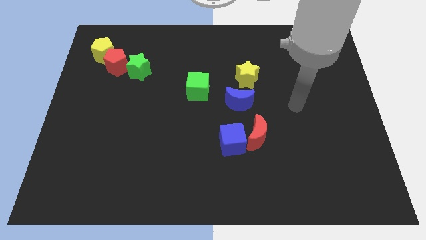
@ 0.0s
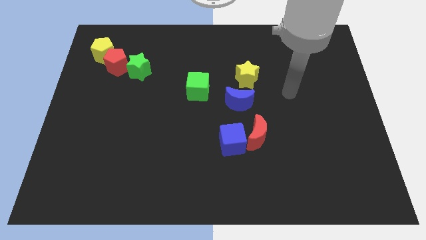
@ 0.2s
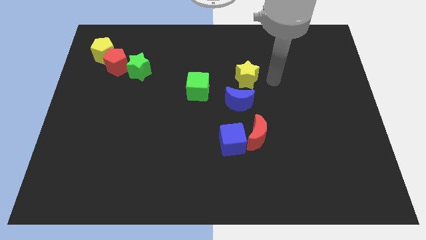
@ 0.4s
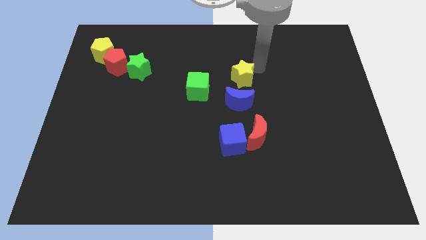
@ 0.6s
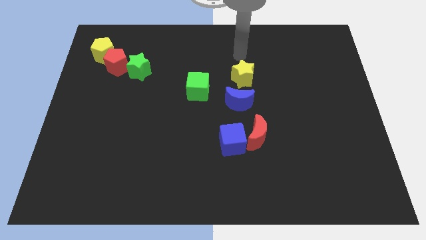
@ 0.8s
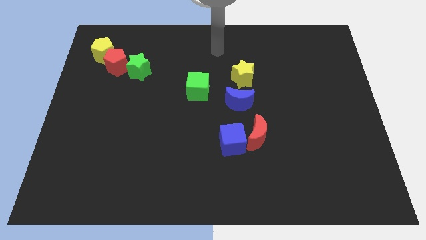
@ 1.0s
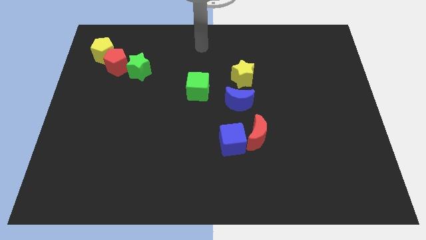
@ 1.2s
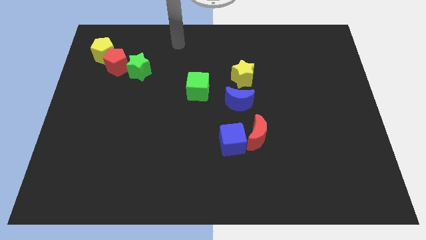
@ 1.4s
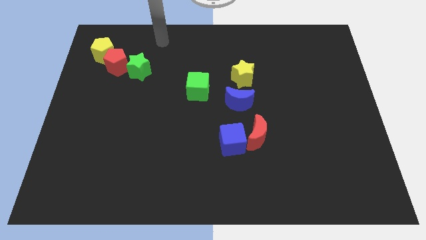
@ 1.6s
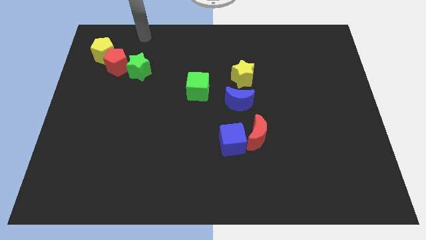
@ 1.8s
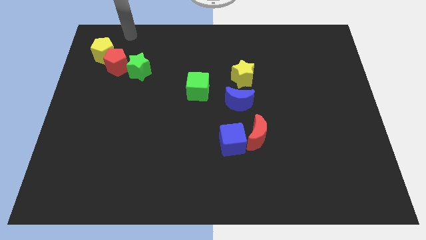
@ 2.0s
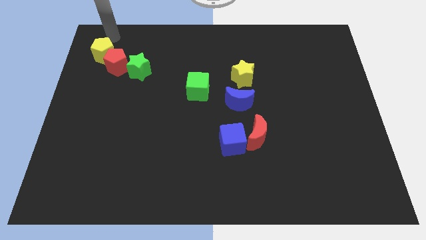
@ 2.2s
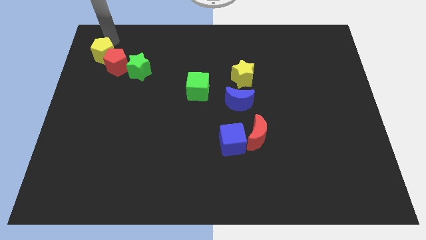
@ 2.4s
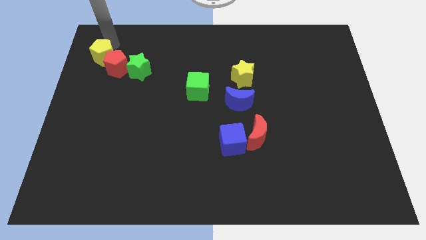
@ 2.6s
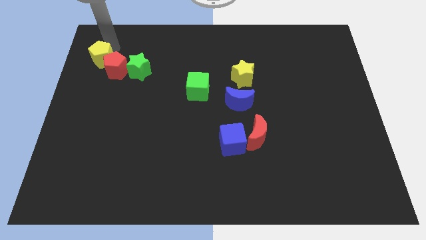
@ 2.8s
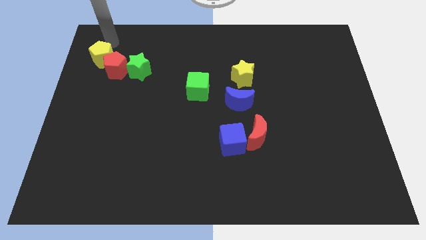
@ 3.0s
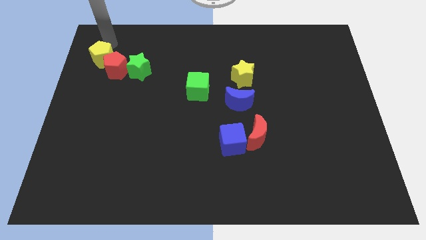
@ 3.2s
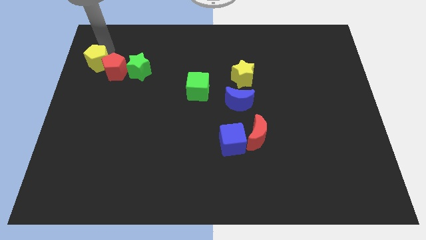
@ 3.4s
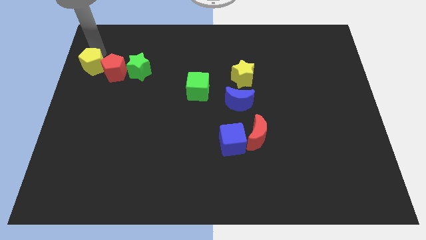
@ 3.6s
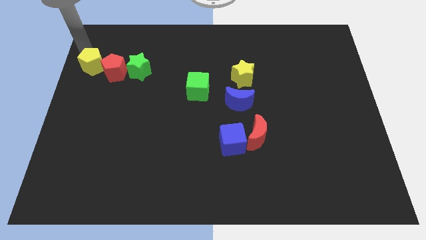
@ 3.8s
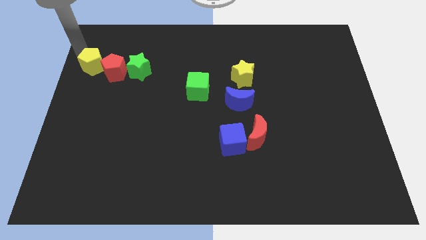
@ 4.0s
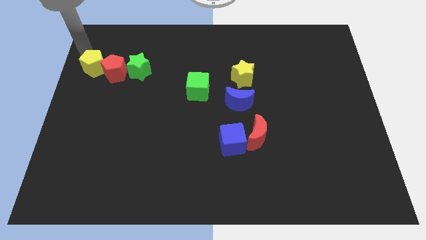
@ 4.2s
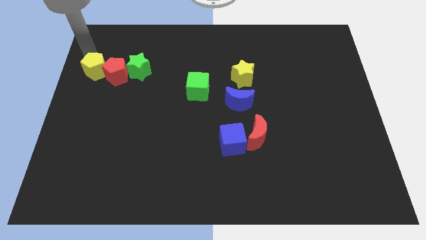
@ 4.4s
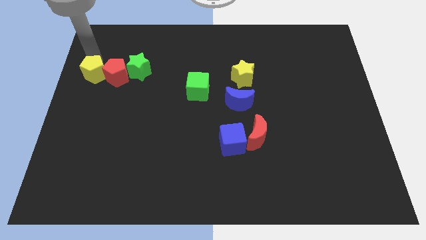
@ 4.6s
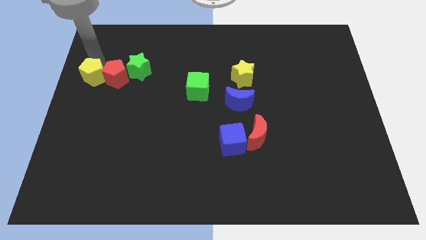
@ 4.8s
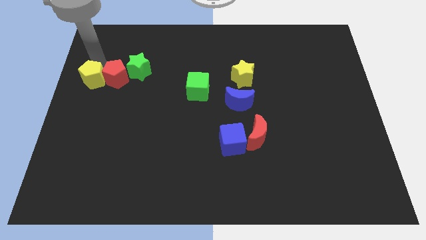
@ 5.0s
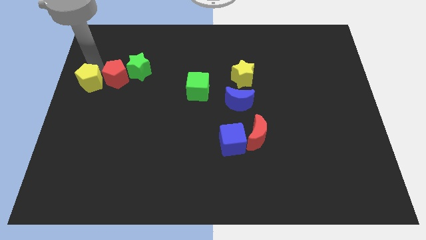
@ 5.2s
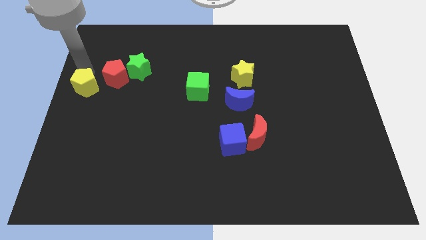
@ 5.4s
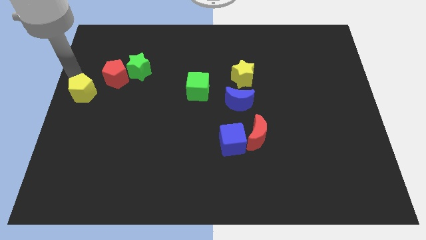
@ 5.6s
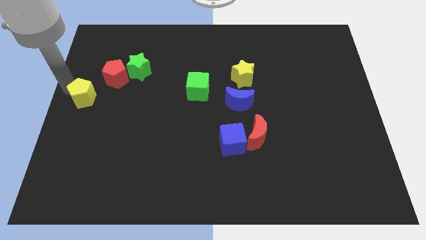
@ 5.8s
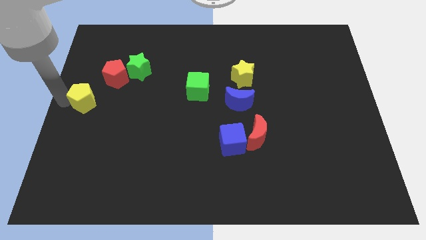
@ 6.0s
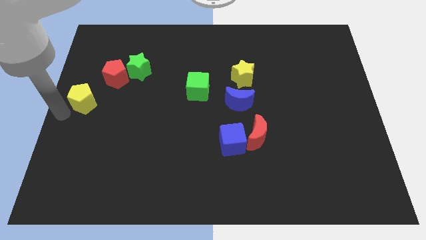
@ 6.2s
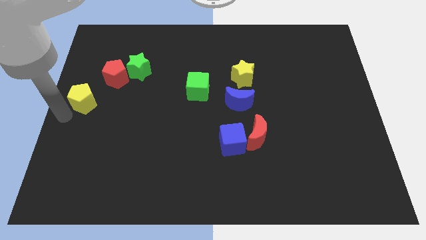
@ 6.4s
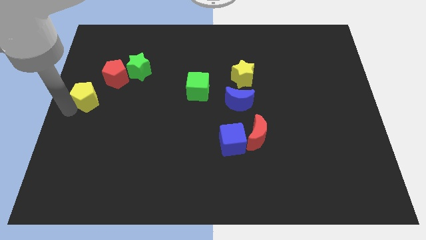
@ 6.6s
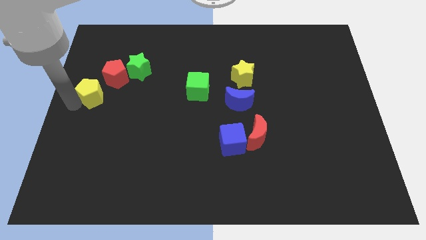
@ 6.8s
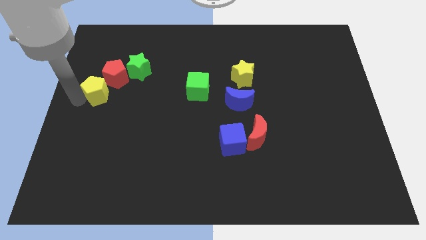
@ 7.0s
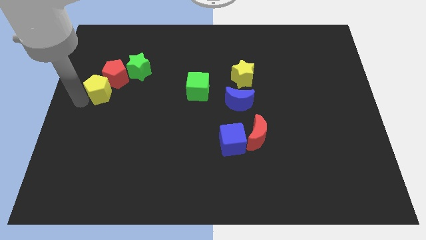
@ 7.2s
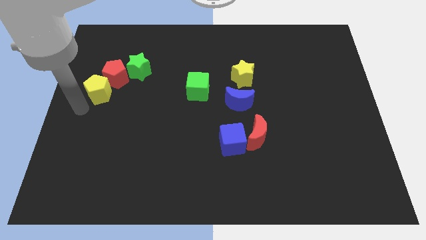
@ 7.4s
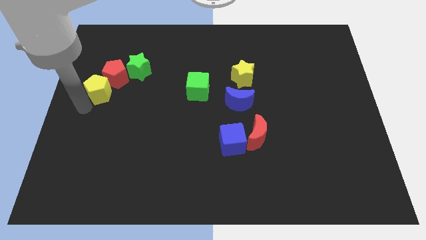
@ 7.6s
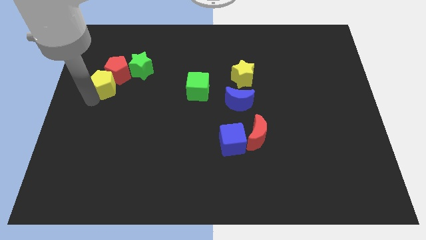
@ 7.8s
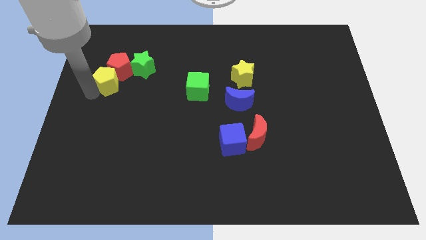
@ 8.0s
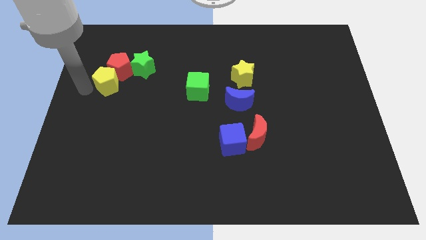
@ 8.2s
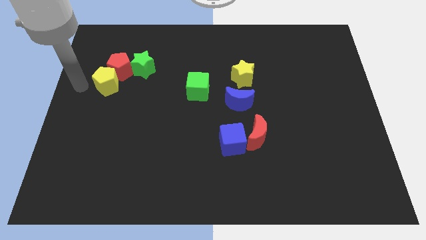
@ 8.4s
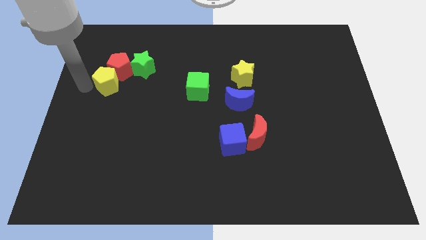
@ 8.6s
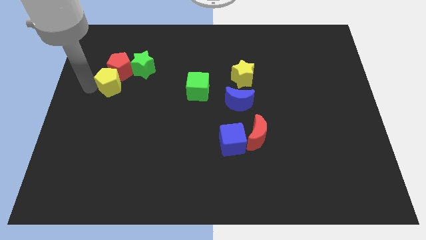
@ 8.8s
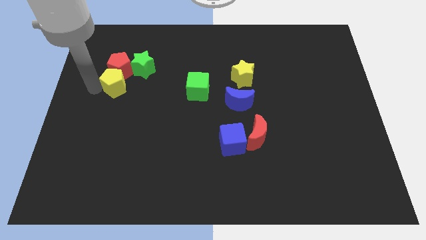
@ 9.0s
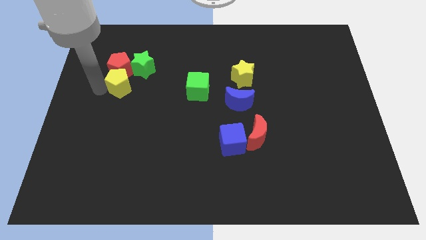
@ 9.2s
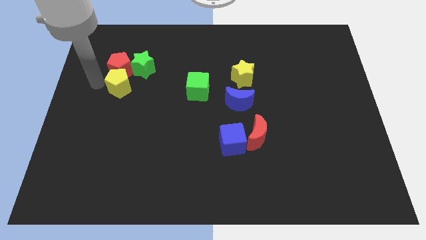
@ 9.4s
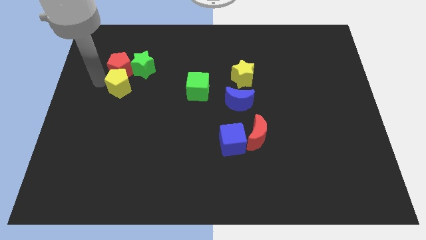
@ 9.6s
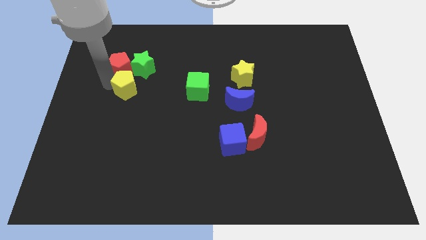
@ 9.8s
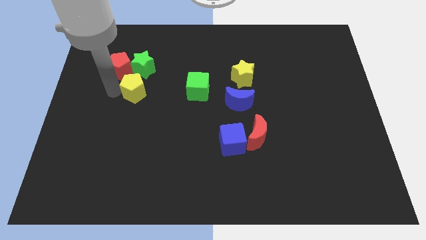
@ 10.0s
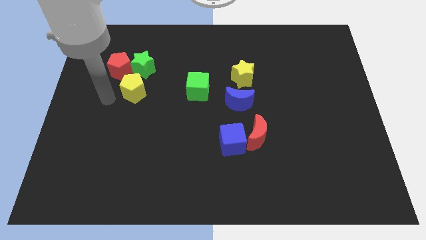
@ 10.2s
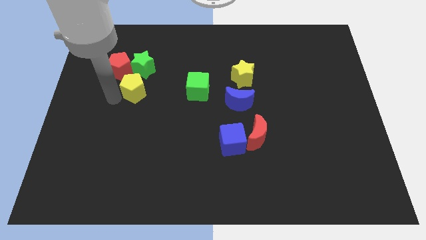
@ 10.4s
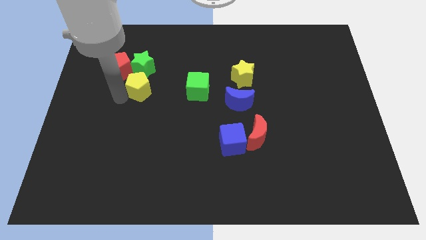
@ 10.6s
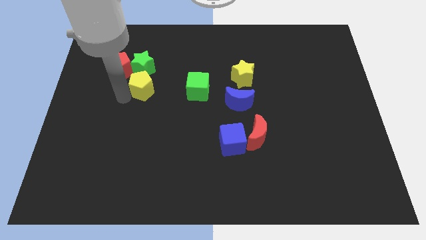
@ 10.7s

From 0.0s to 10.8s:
put the yellow pentagon to the bottom right side of the green star

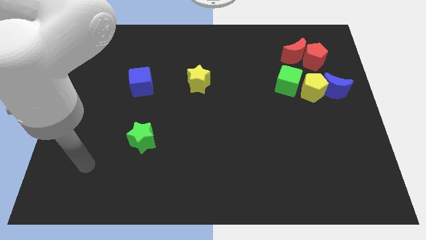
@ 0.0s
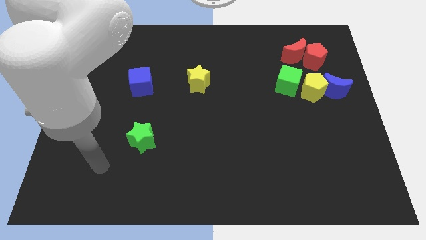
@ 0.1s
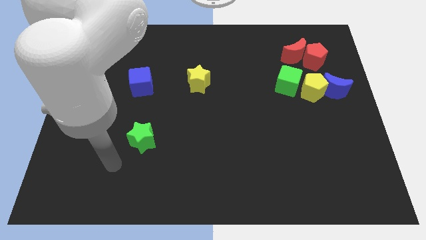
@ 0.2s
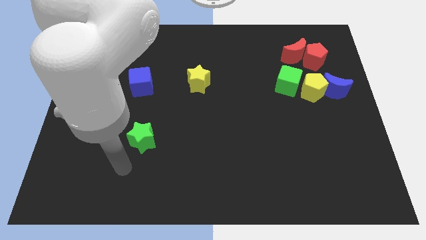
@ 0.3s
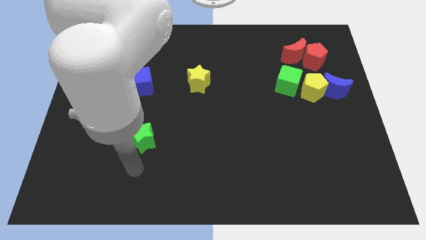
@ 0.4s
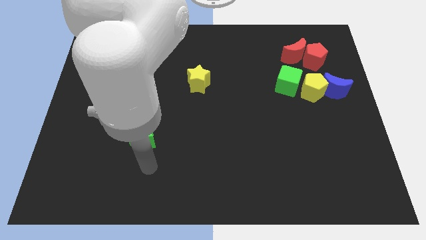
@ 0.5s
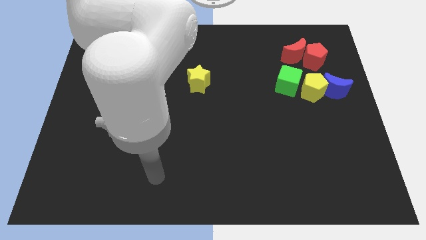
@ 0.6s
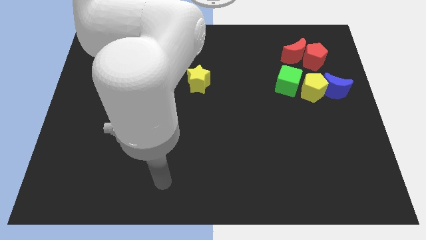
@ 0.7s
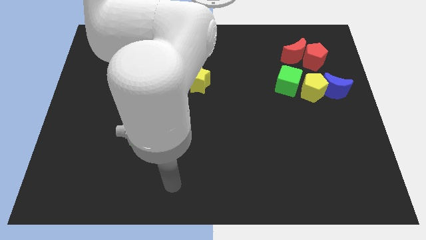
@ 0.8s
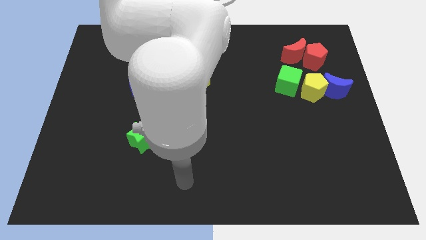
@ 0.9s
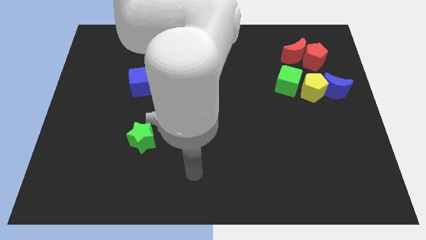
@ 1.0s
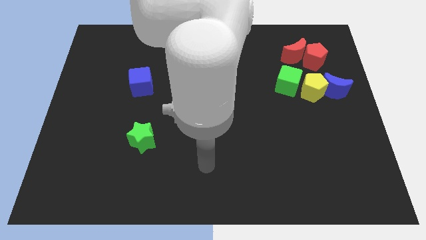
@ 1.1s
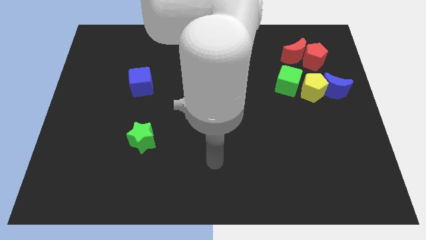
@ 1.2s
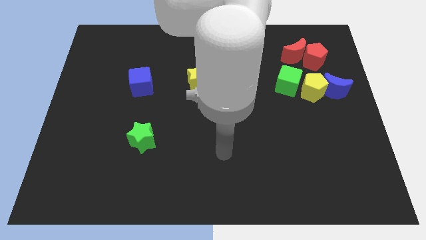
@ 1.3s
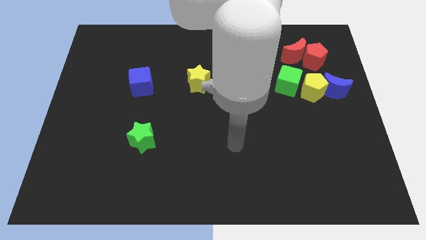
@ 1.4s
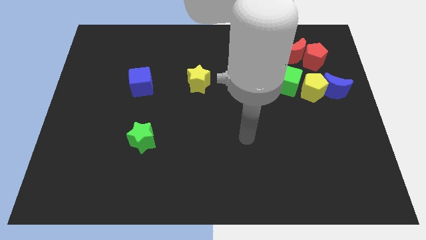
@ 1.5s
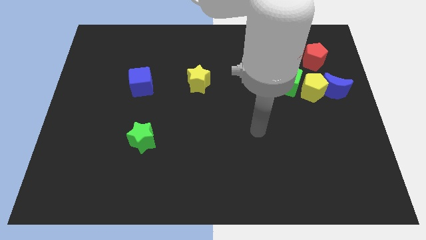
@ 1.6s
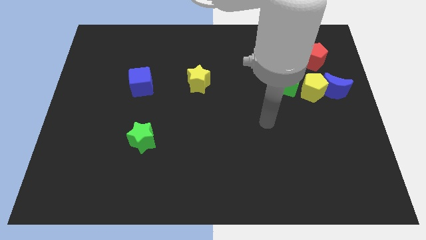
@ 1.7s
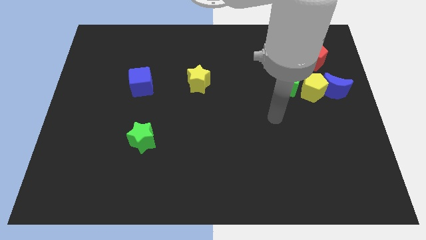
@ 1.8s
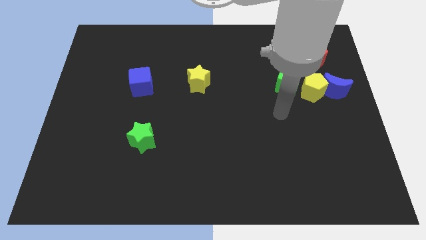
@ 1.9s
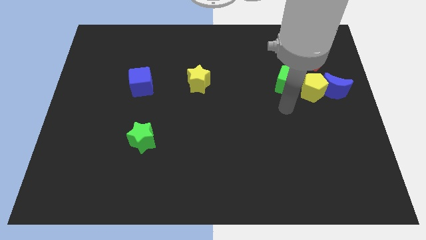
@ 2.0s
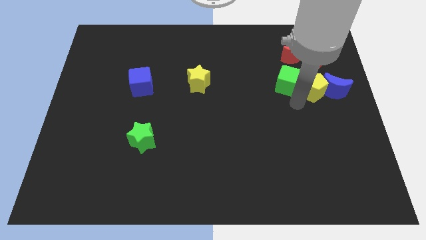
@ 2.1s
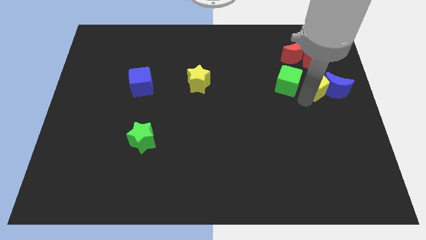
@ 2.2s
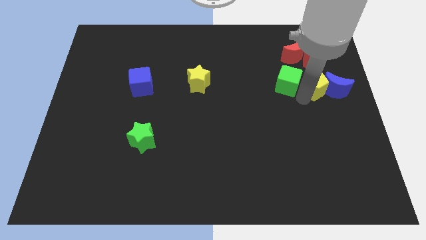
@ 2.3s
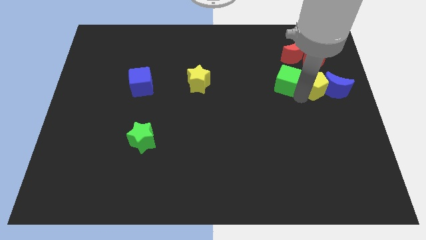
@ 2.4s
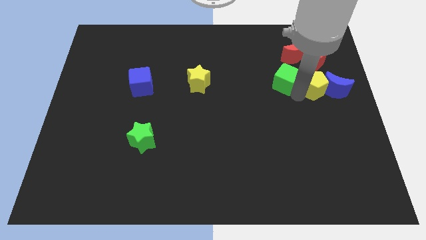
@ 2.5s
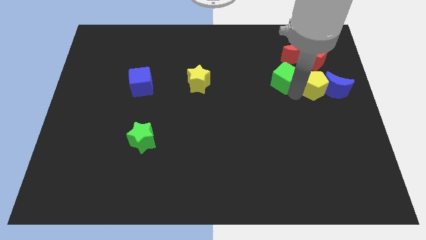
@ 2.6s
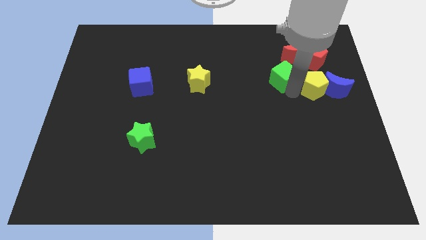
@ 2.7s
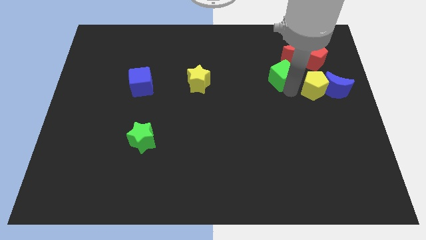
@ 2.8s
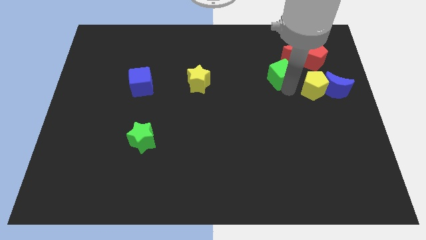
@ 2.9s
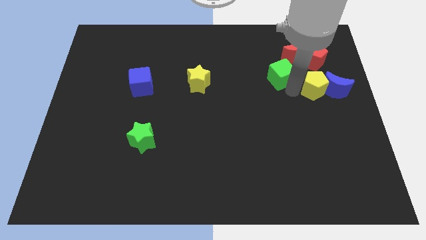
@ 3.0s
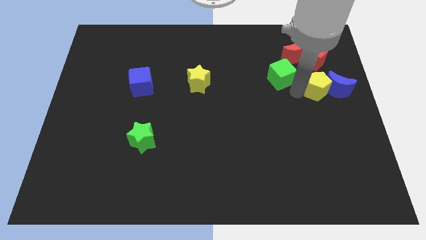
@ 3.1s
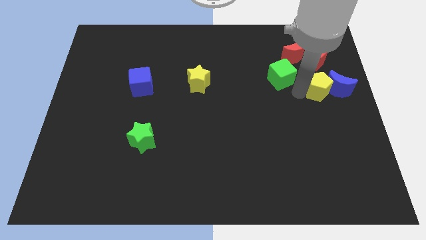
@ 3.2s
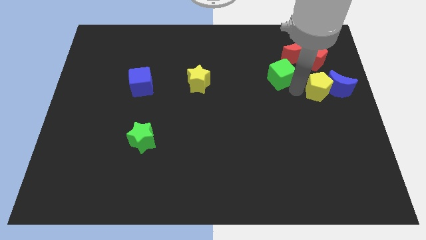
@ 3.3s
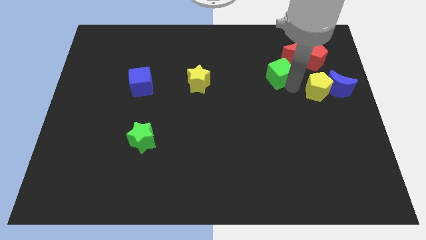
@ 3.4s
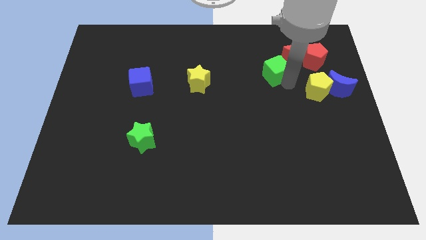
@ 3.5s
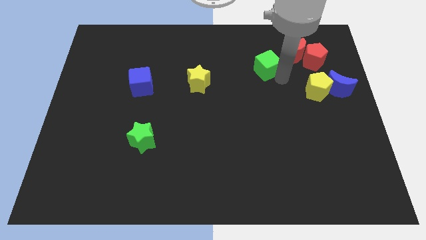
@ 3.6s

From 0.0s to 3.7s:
push the green cube just left of the red moon
